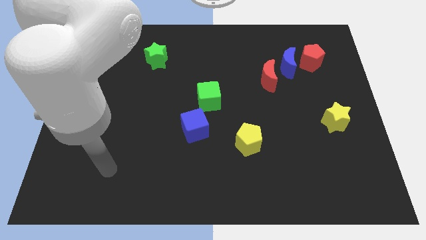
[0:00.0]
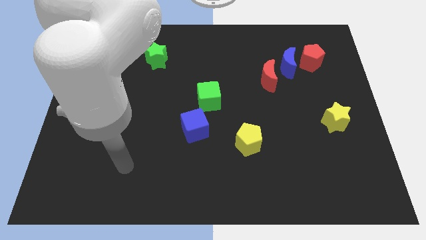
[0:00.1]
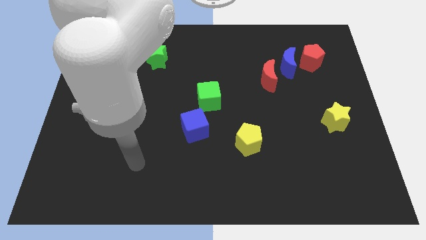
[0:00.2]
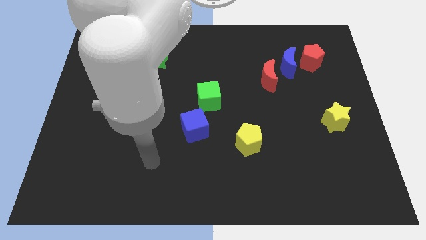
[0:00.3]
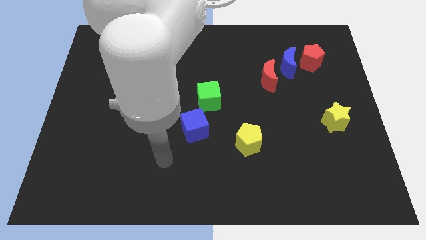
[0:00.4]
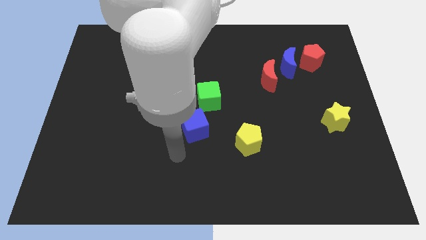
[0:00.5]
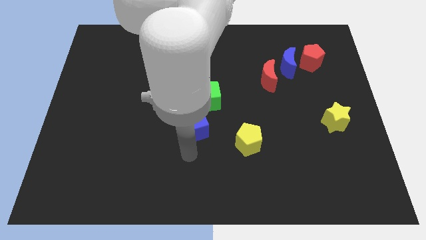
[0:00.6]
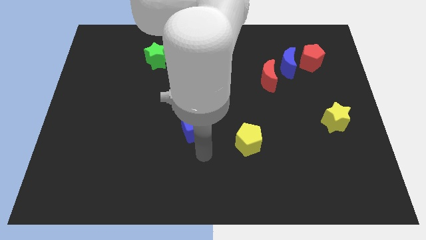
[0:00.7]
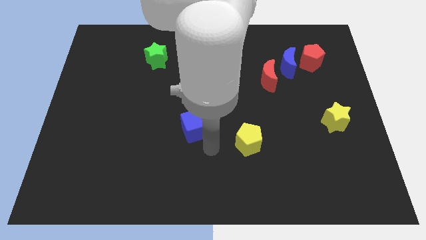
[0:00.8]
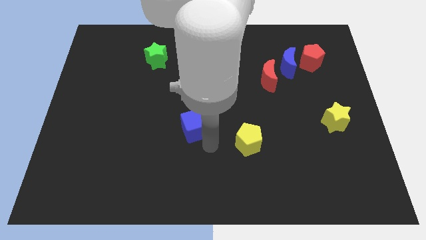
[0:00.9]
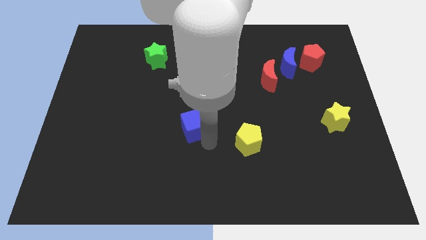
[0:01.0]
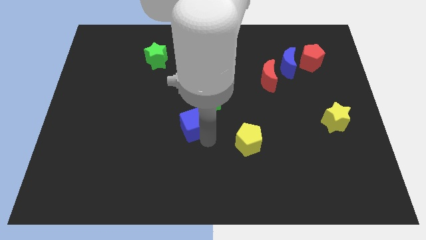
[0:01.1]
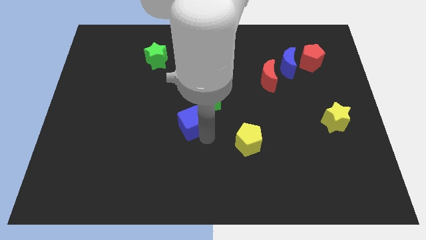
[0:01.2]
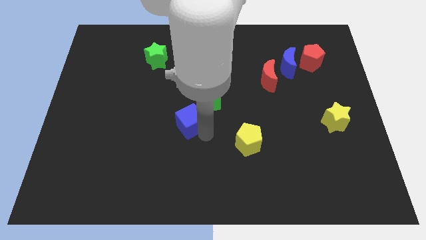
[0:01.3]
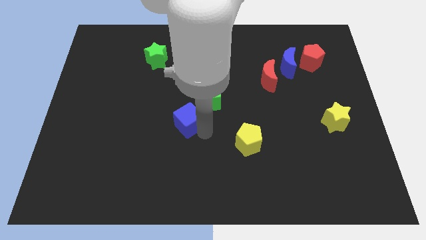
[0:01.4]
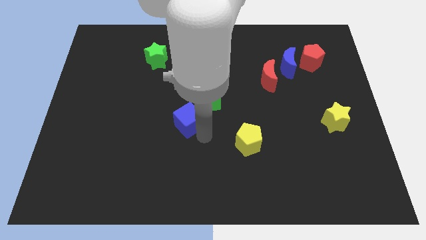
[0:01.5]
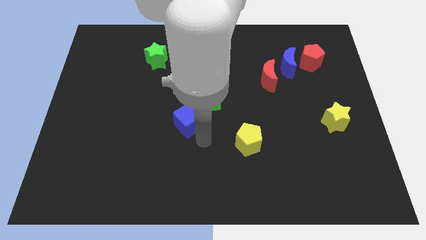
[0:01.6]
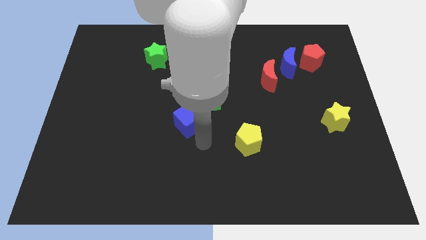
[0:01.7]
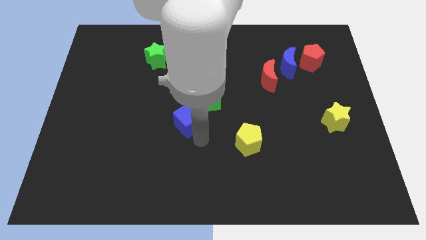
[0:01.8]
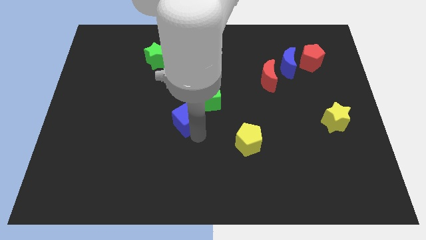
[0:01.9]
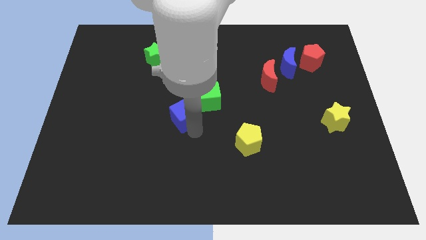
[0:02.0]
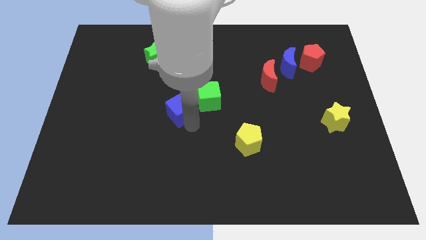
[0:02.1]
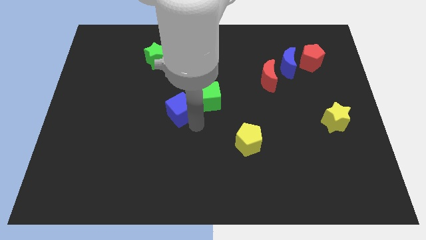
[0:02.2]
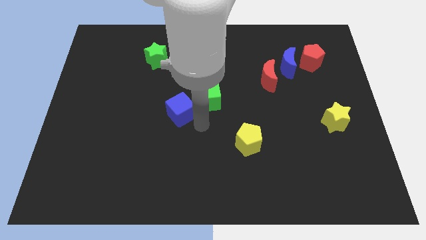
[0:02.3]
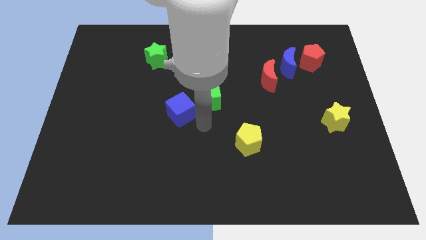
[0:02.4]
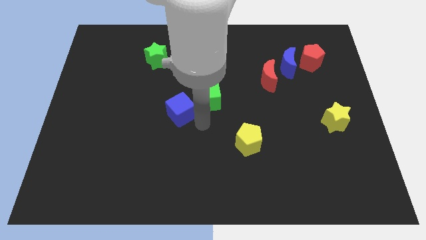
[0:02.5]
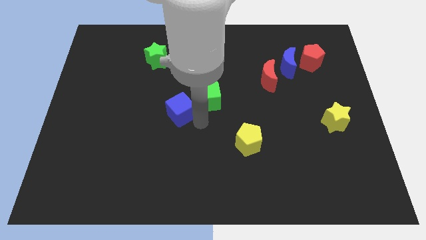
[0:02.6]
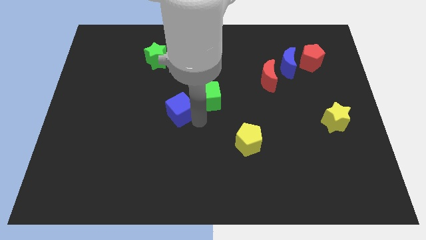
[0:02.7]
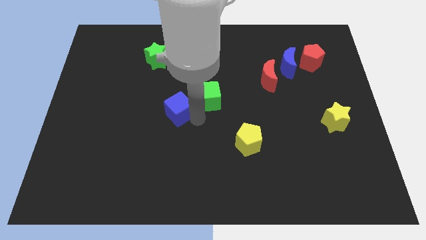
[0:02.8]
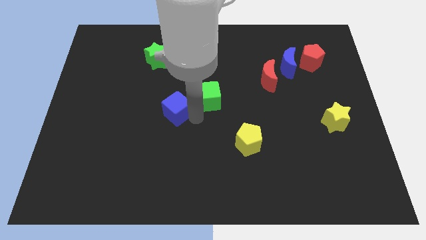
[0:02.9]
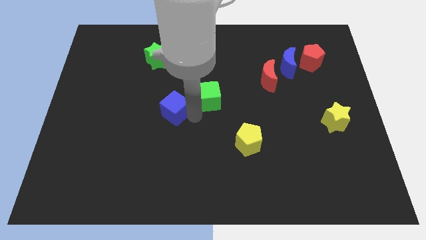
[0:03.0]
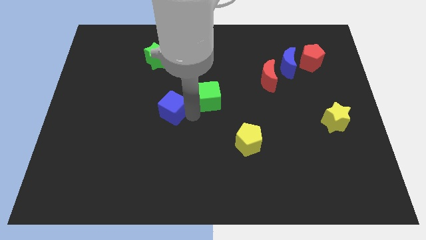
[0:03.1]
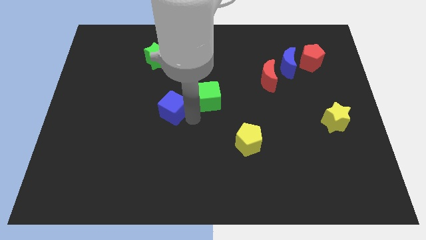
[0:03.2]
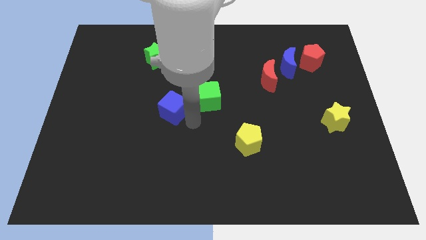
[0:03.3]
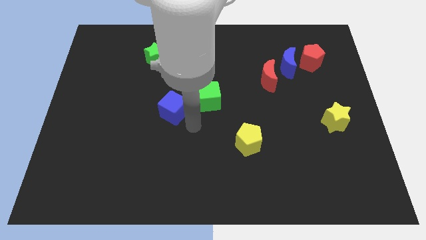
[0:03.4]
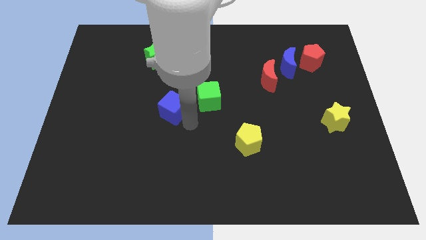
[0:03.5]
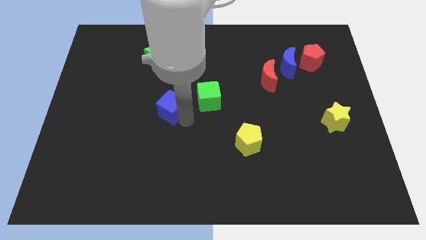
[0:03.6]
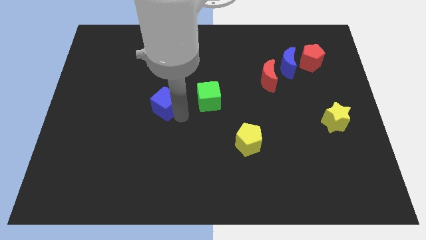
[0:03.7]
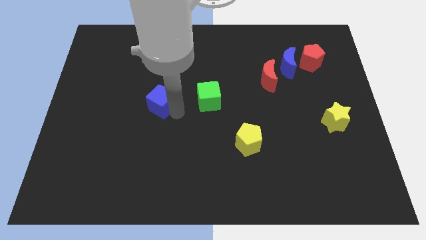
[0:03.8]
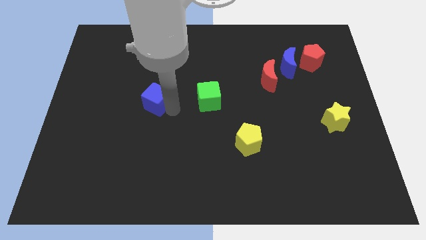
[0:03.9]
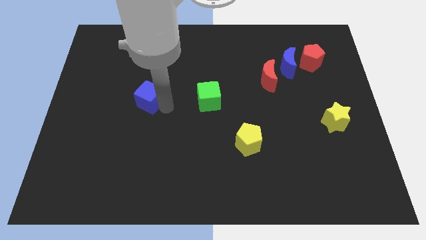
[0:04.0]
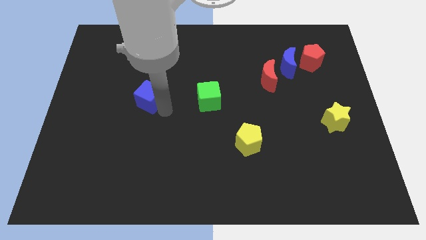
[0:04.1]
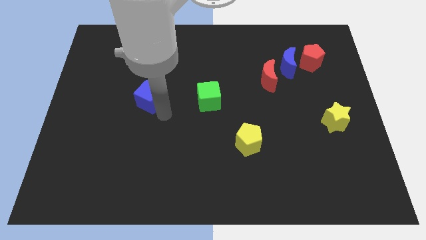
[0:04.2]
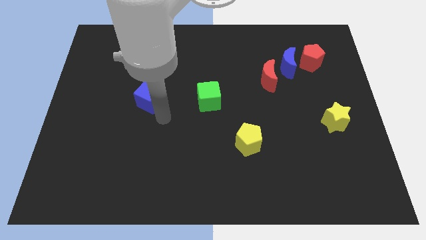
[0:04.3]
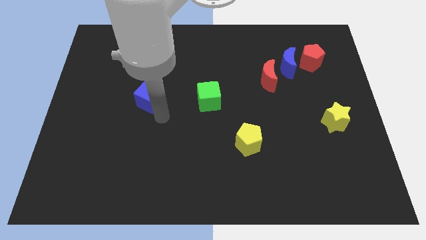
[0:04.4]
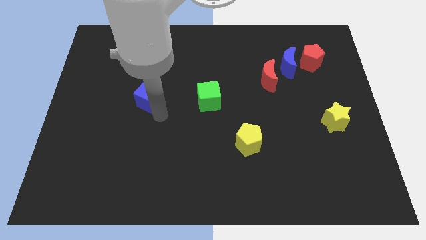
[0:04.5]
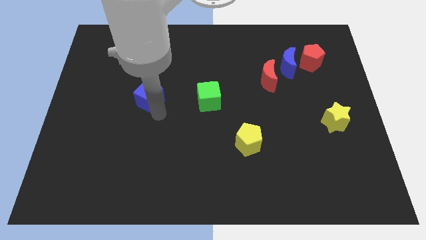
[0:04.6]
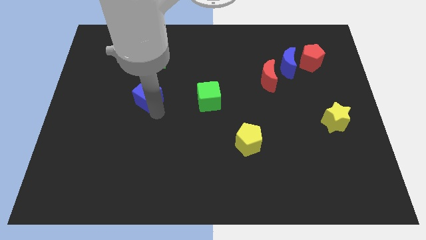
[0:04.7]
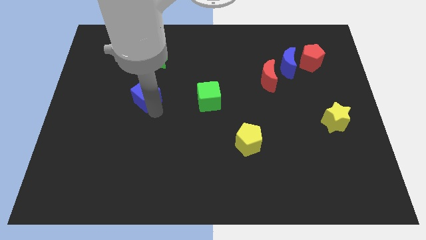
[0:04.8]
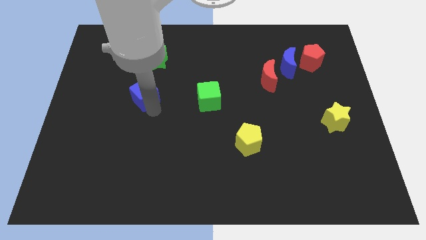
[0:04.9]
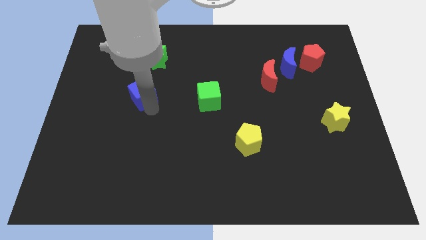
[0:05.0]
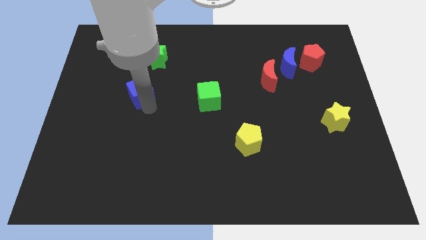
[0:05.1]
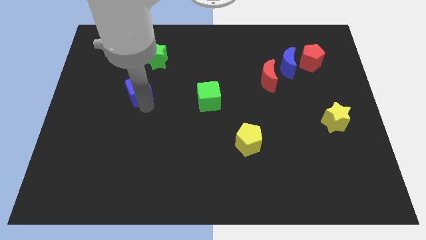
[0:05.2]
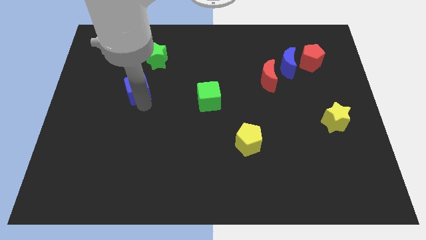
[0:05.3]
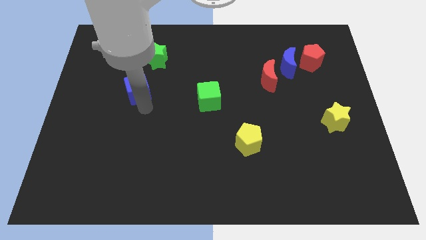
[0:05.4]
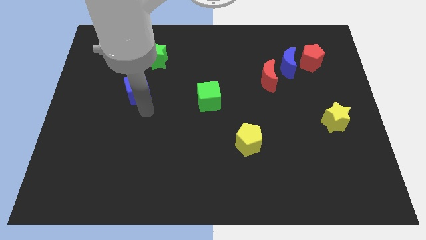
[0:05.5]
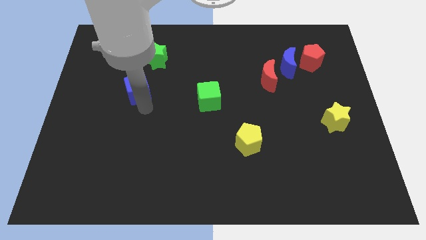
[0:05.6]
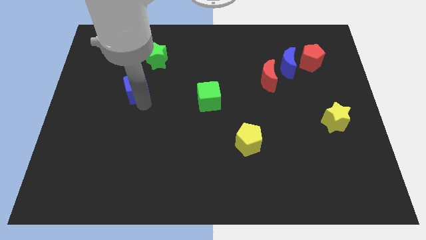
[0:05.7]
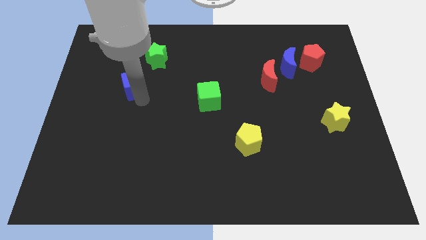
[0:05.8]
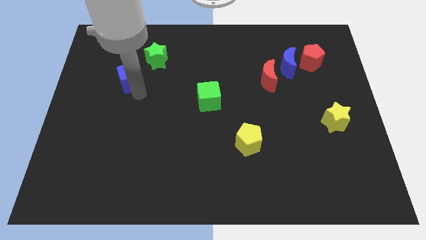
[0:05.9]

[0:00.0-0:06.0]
slide the blue cube upwards and then to the left

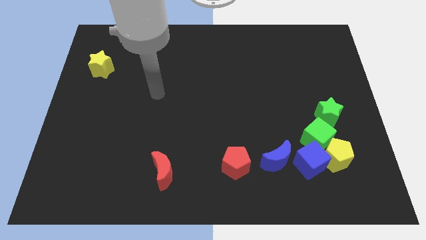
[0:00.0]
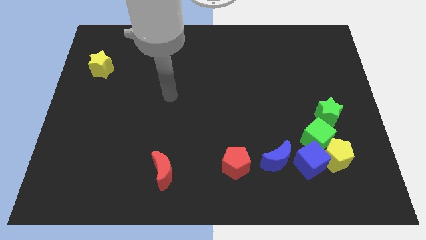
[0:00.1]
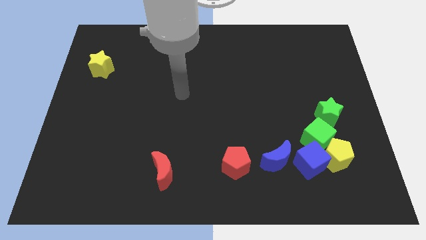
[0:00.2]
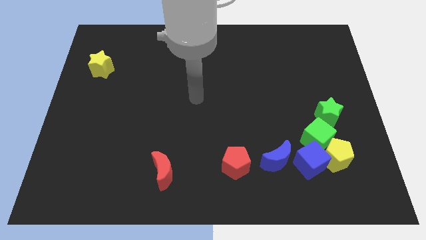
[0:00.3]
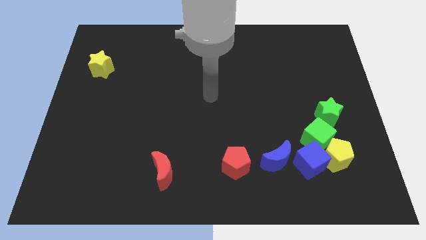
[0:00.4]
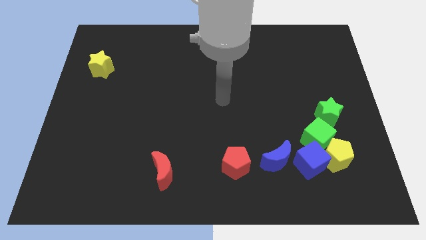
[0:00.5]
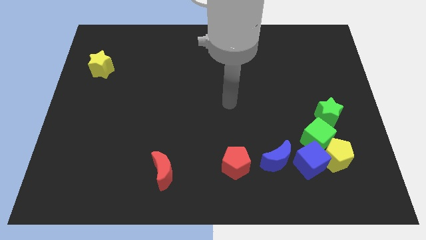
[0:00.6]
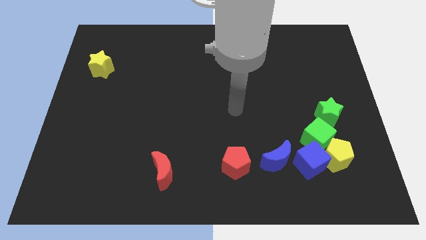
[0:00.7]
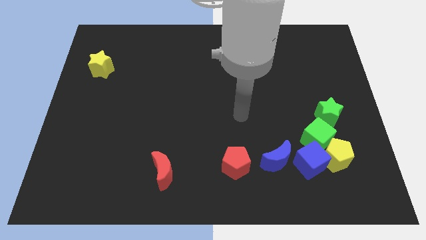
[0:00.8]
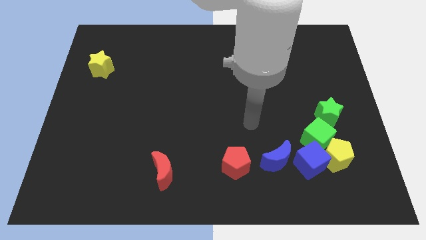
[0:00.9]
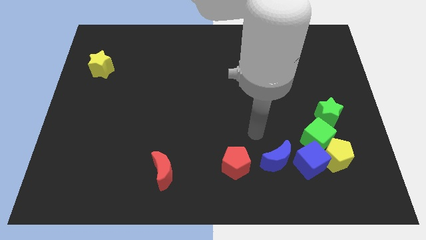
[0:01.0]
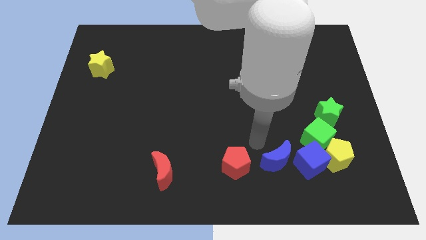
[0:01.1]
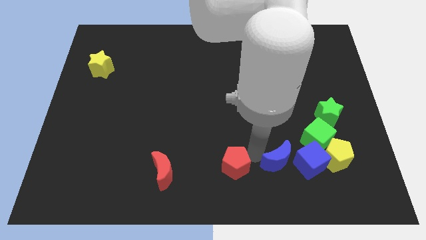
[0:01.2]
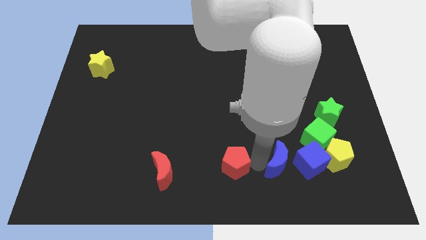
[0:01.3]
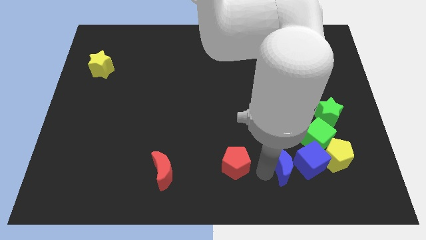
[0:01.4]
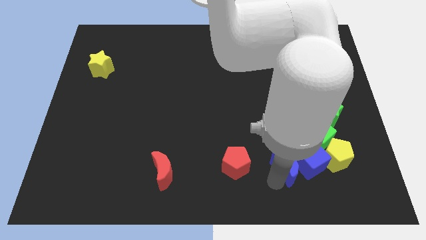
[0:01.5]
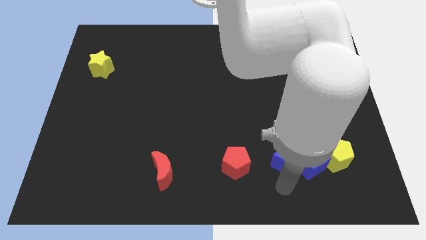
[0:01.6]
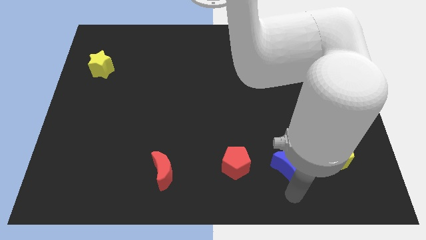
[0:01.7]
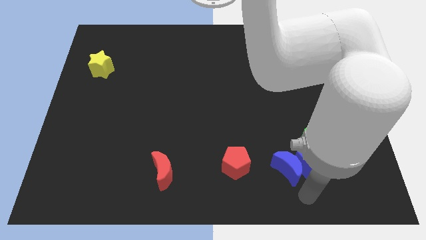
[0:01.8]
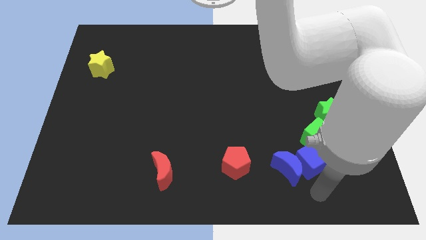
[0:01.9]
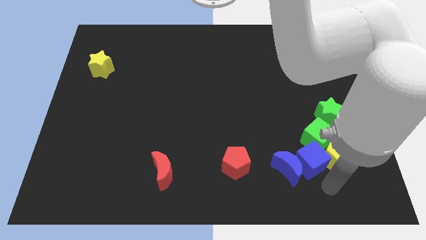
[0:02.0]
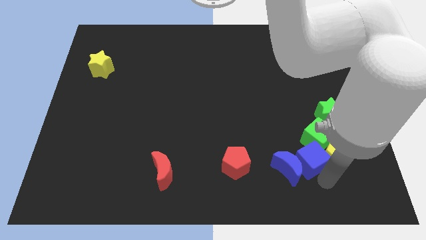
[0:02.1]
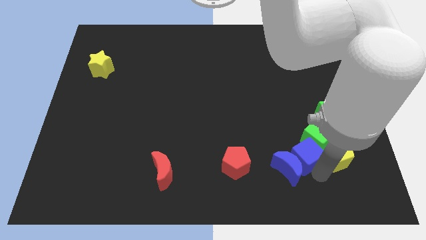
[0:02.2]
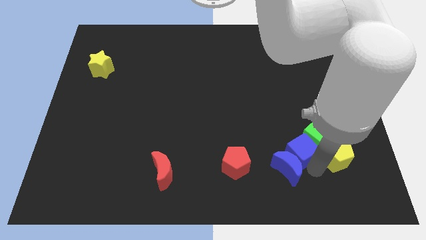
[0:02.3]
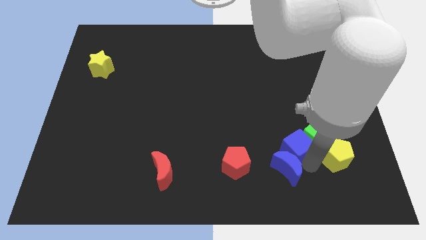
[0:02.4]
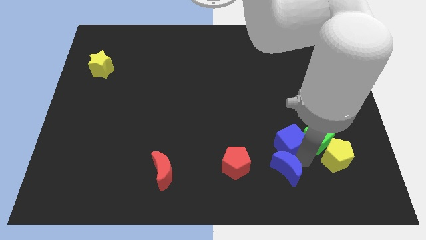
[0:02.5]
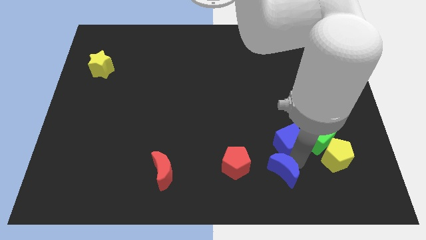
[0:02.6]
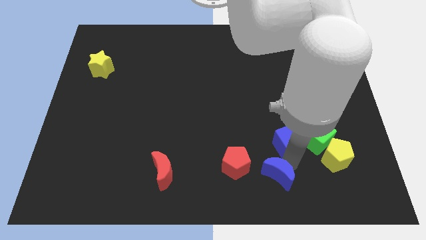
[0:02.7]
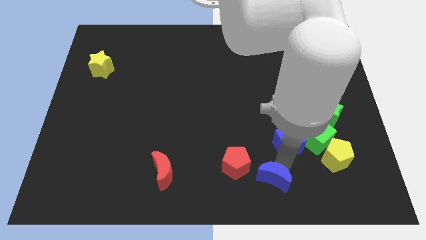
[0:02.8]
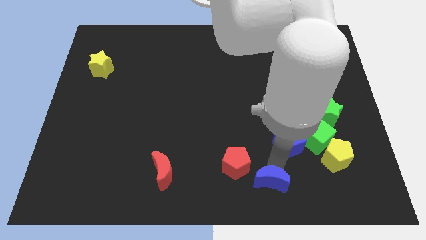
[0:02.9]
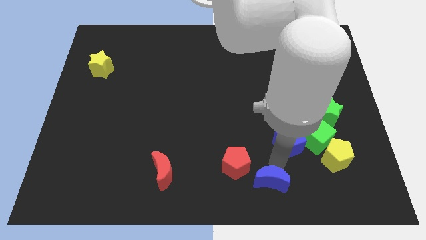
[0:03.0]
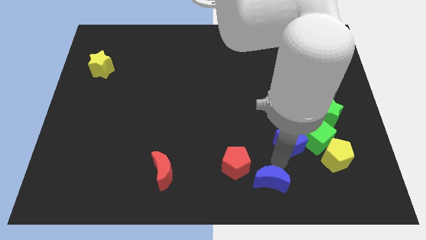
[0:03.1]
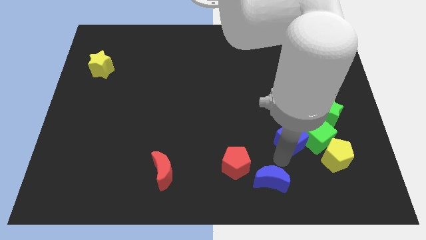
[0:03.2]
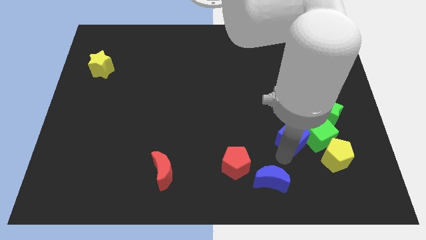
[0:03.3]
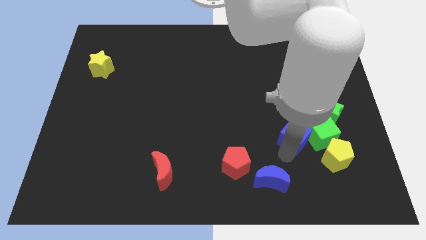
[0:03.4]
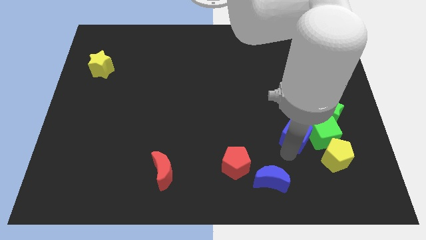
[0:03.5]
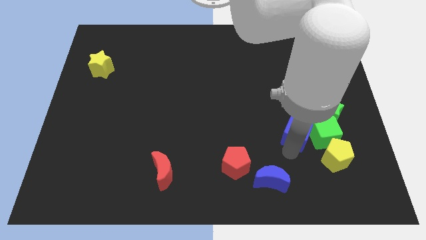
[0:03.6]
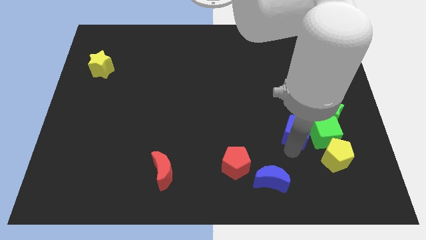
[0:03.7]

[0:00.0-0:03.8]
move the blue cube upwards somewhat
